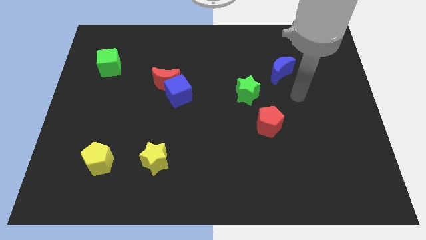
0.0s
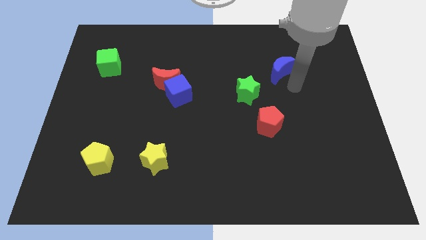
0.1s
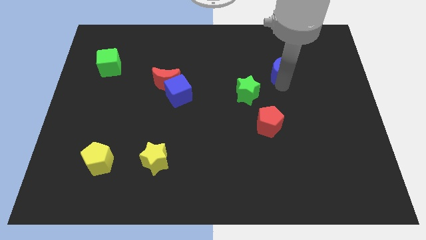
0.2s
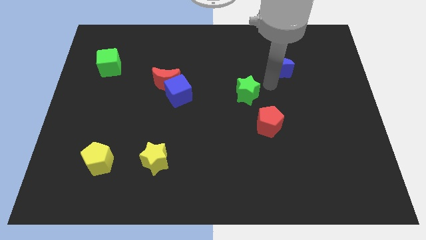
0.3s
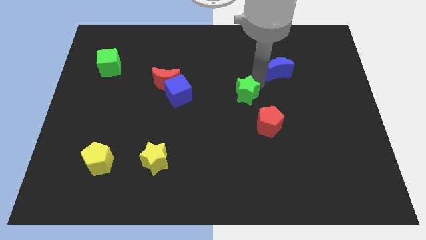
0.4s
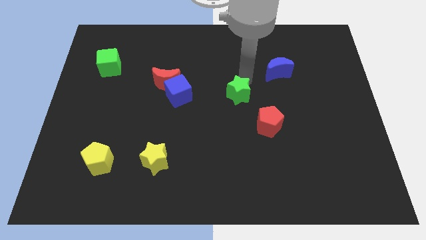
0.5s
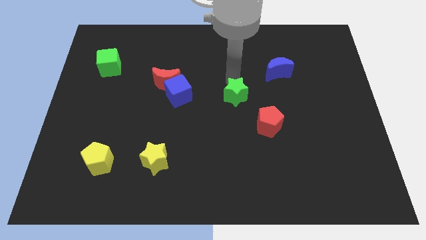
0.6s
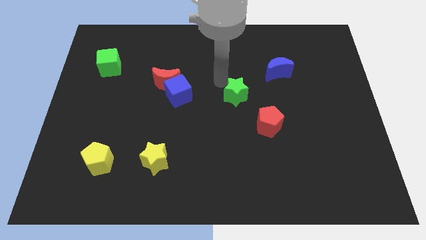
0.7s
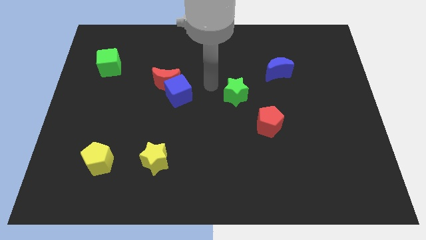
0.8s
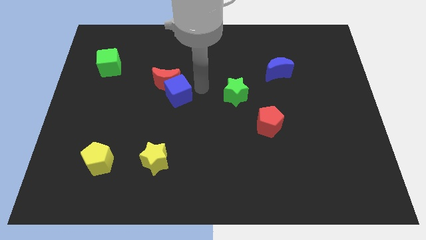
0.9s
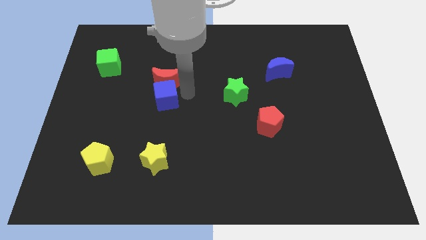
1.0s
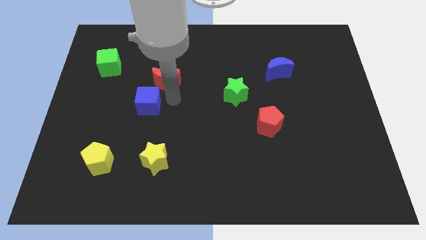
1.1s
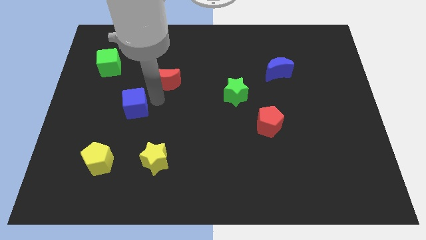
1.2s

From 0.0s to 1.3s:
move the red moon away from the blue cube

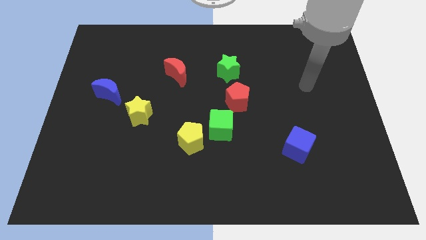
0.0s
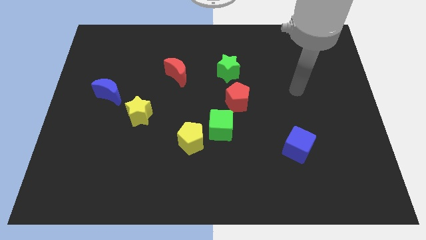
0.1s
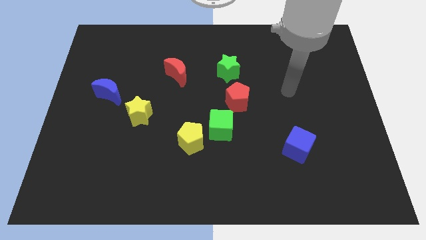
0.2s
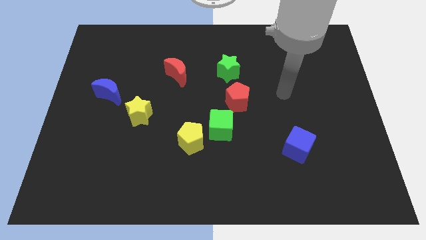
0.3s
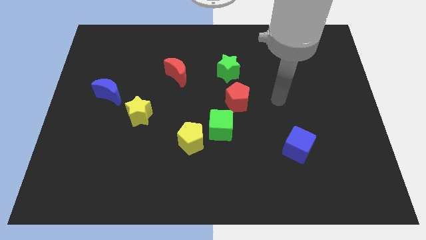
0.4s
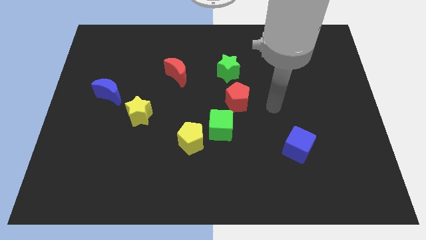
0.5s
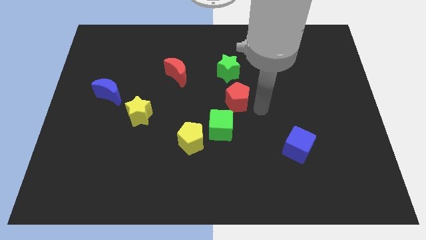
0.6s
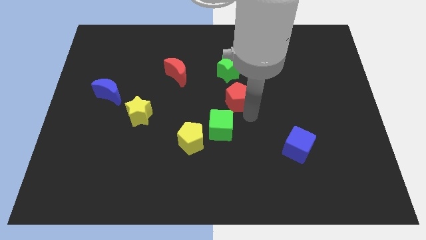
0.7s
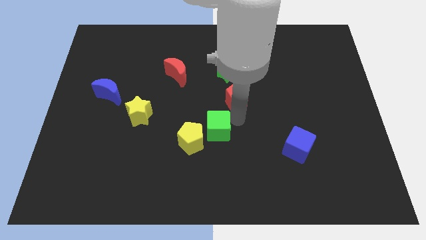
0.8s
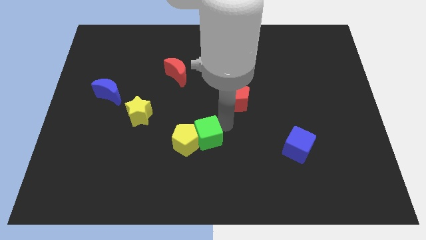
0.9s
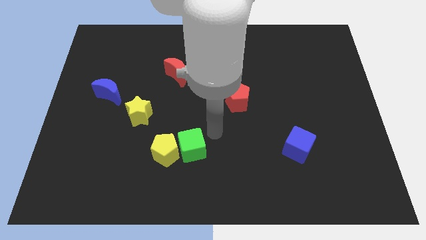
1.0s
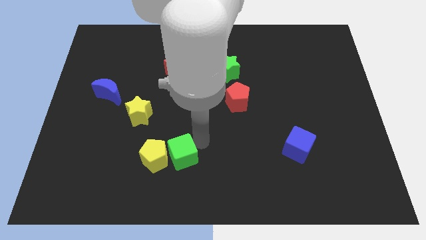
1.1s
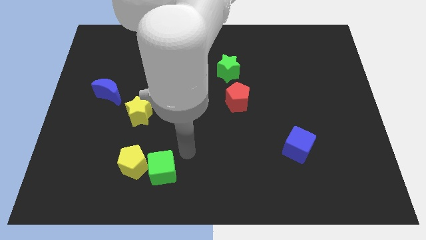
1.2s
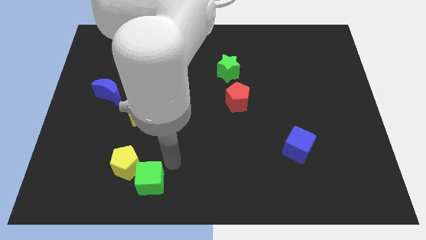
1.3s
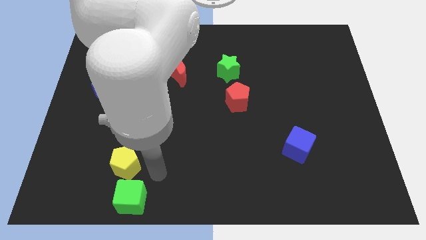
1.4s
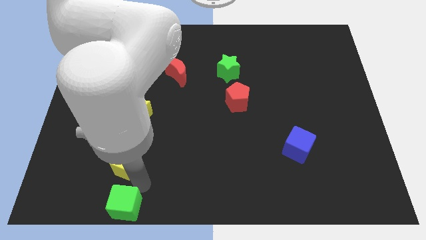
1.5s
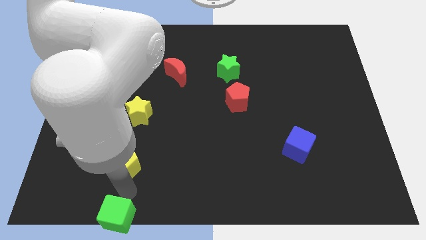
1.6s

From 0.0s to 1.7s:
move the yellow pentagon away from the green cube

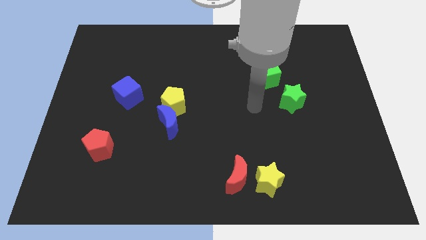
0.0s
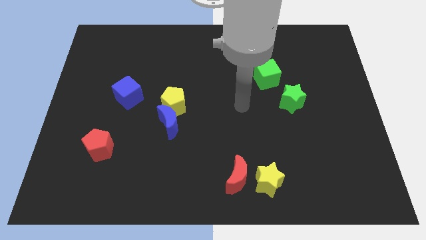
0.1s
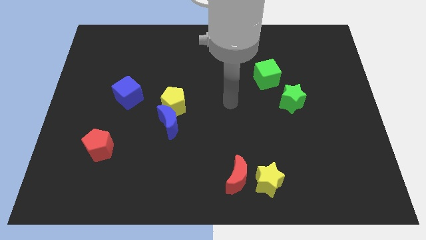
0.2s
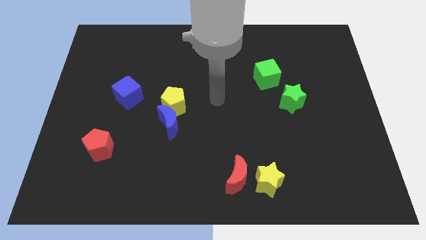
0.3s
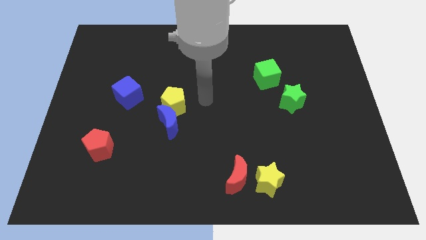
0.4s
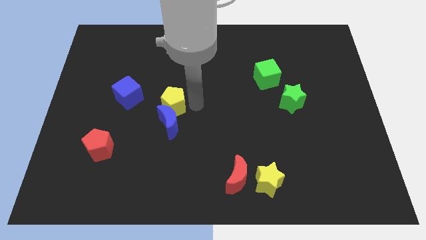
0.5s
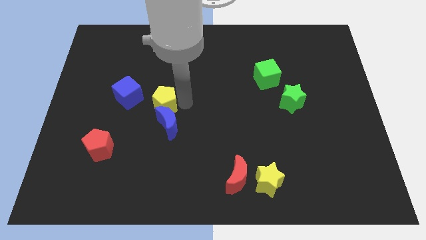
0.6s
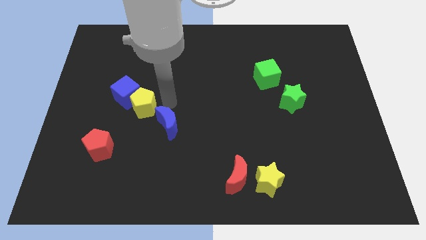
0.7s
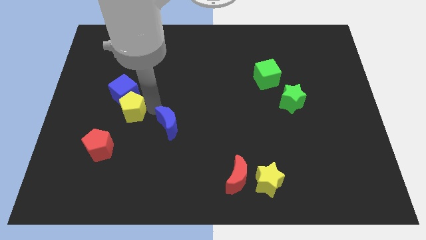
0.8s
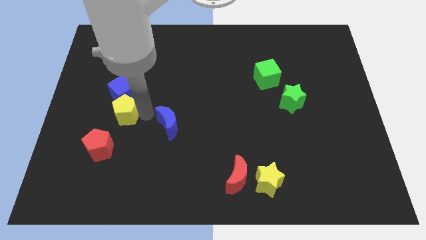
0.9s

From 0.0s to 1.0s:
move the blue moon away from the yellow pentagon

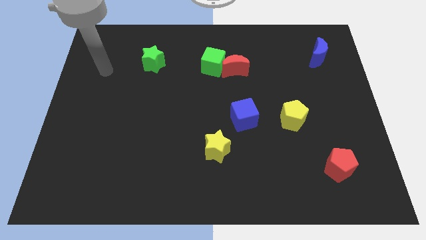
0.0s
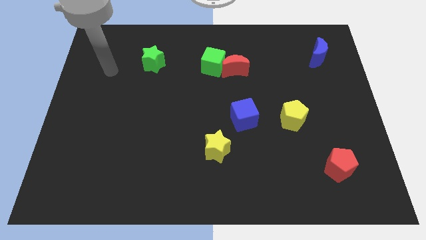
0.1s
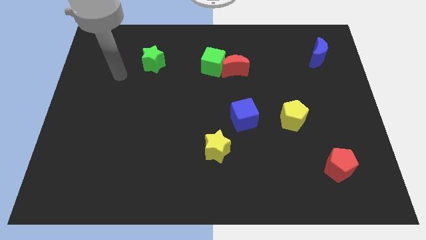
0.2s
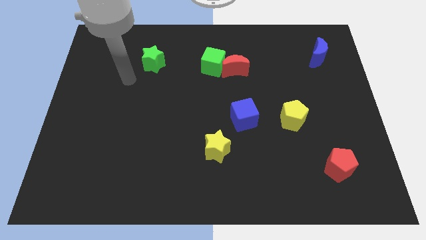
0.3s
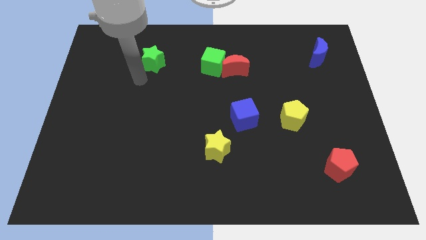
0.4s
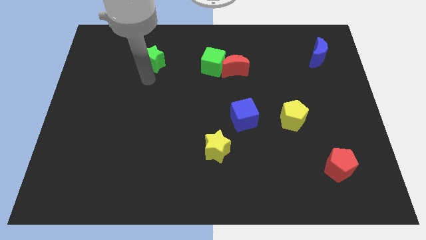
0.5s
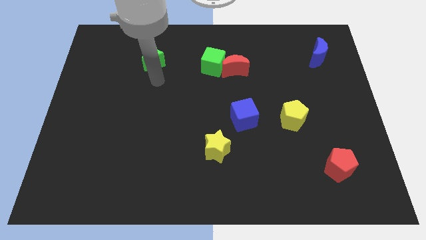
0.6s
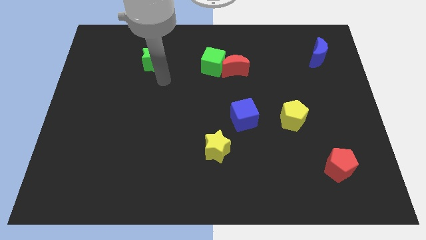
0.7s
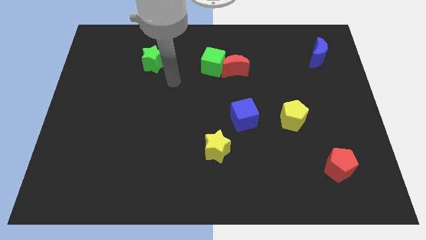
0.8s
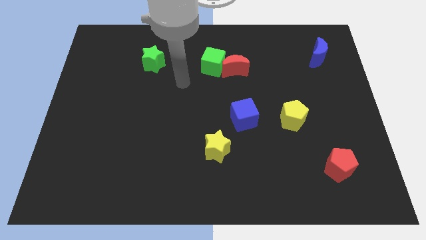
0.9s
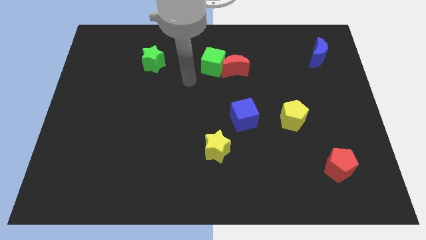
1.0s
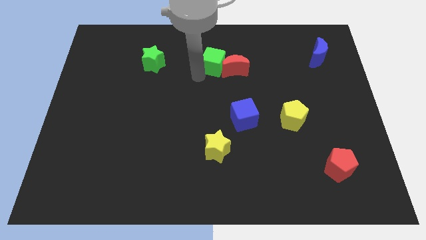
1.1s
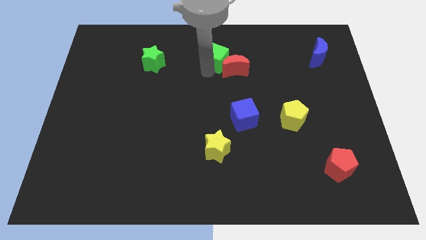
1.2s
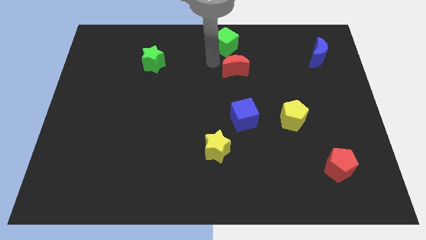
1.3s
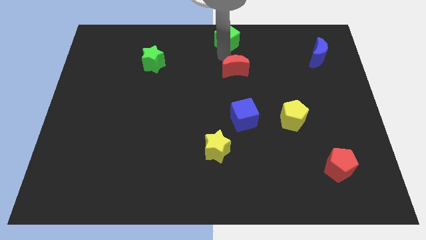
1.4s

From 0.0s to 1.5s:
separate the red moon from the green cube

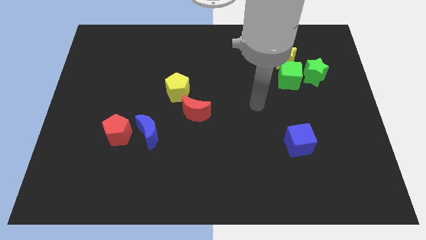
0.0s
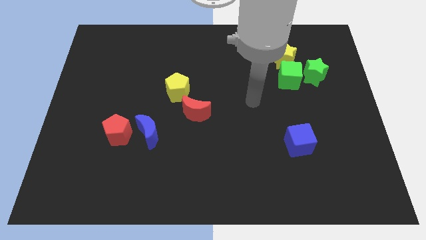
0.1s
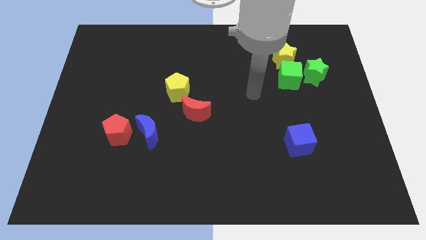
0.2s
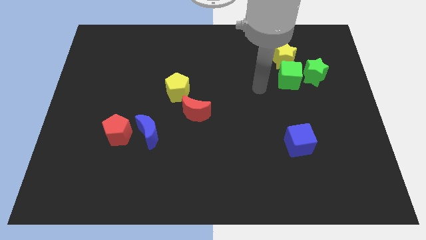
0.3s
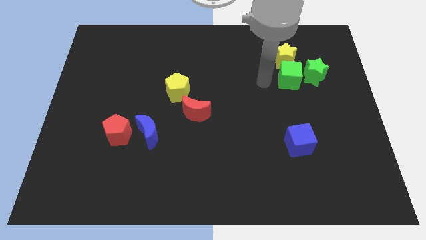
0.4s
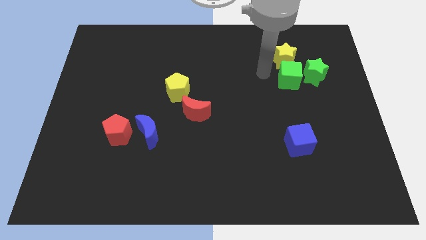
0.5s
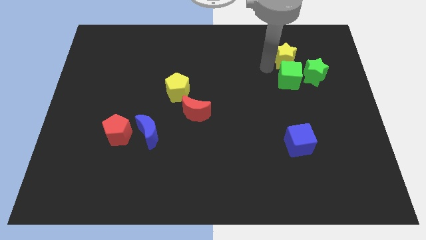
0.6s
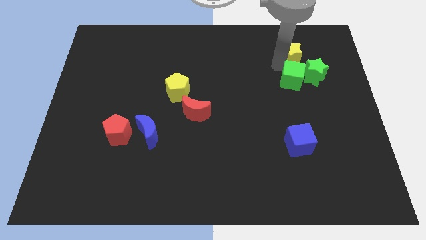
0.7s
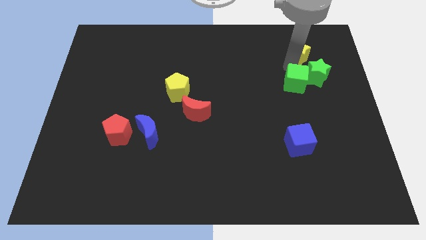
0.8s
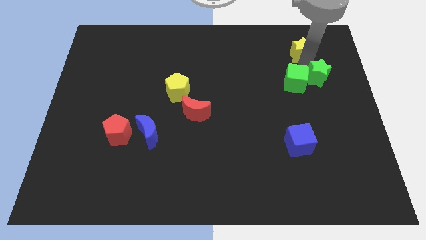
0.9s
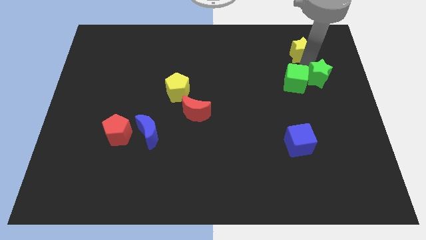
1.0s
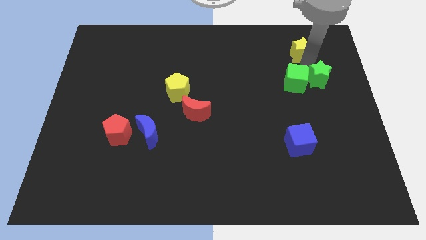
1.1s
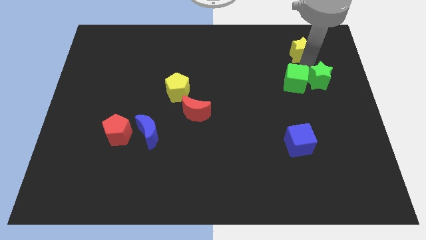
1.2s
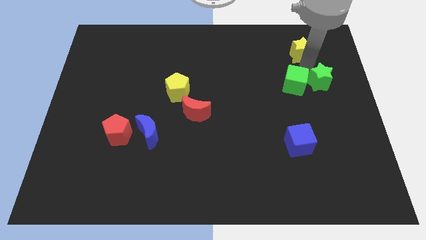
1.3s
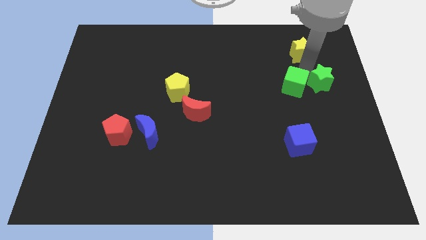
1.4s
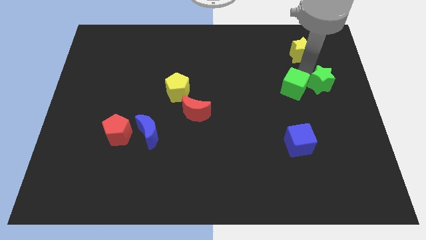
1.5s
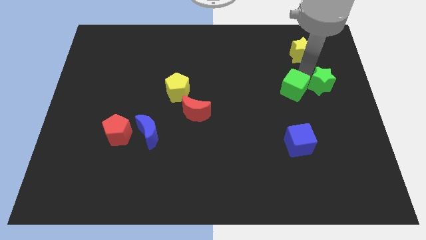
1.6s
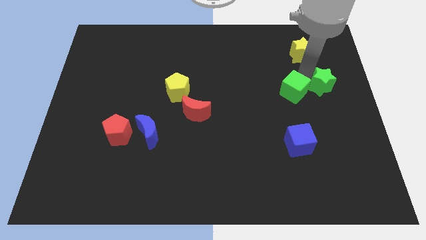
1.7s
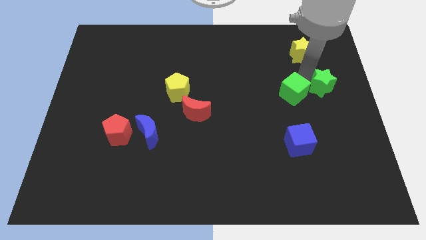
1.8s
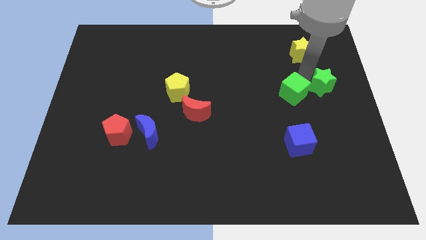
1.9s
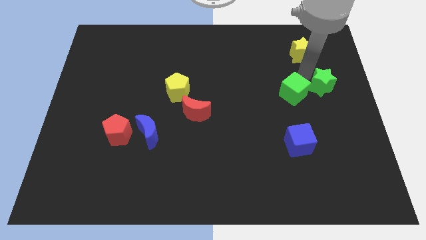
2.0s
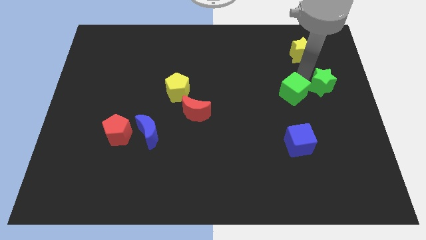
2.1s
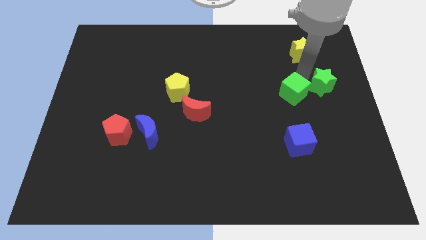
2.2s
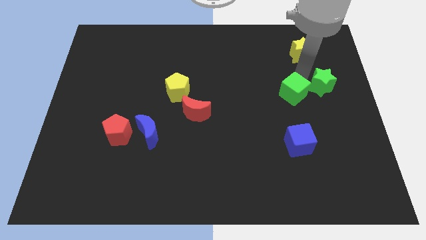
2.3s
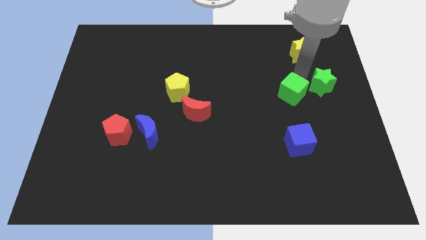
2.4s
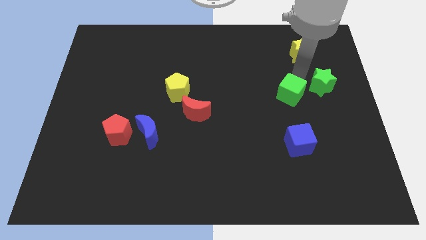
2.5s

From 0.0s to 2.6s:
separate the green cube from the green star and yellow star

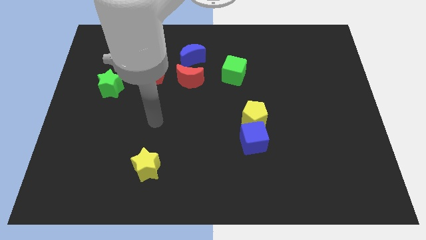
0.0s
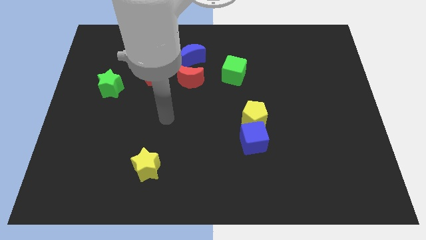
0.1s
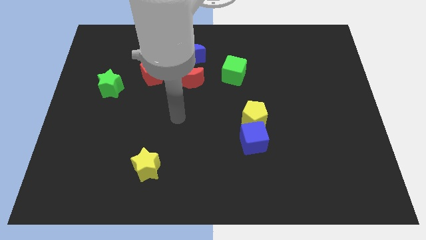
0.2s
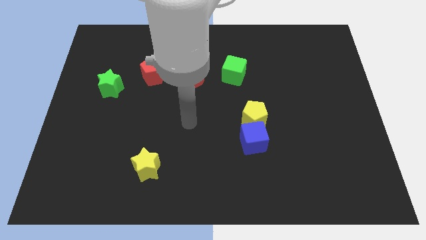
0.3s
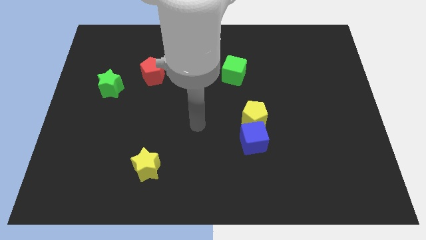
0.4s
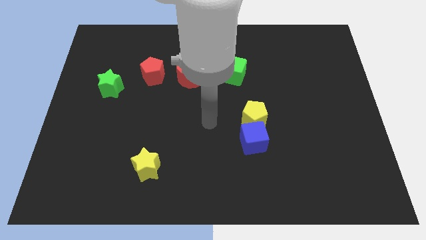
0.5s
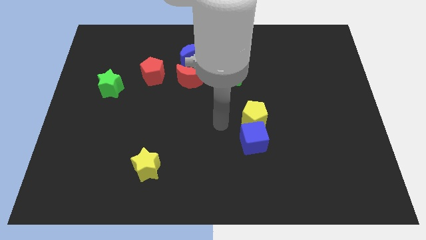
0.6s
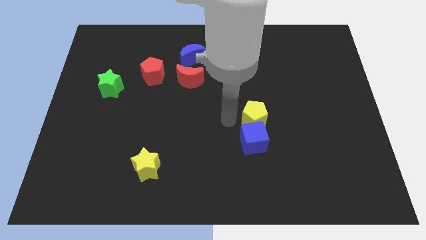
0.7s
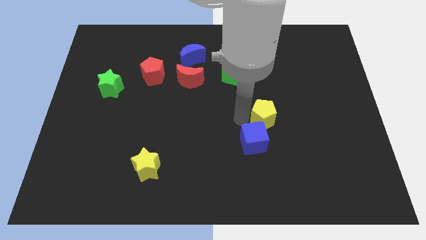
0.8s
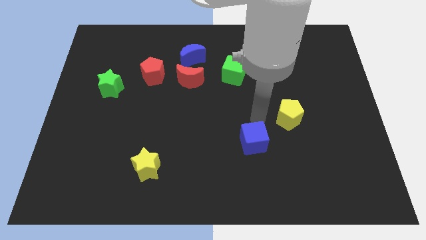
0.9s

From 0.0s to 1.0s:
move the blue cube away from the yellow pentagon

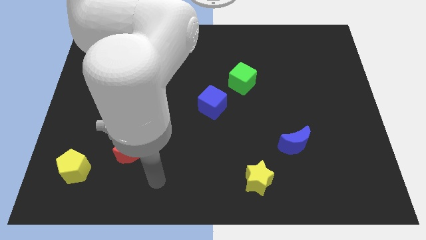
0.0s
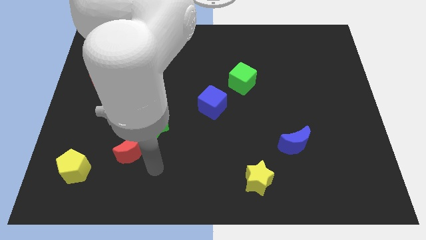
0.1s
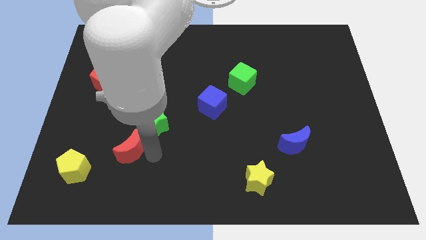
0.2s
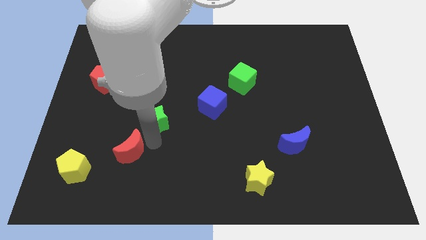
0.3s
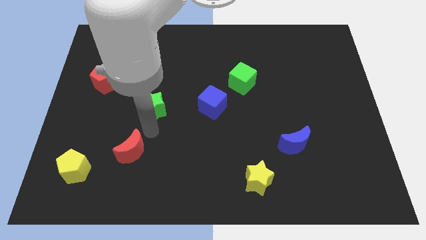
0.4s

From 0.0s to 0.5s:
pull the red moon apart from the green star
